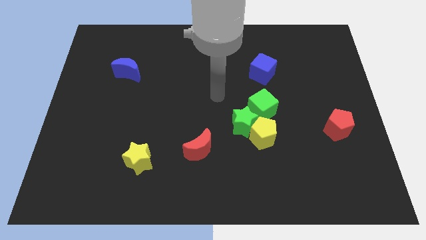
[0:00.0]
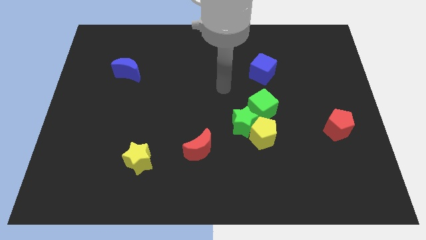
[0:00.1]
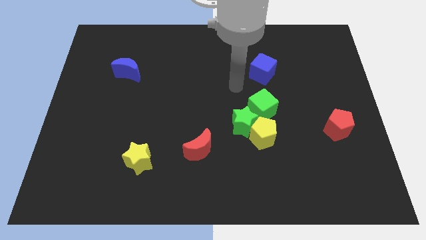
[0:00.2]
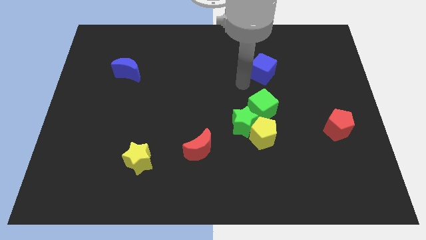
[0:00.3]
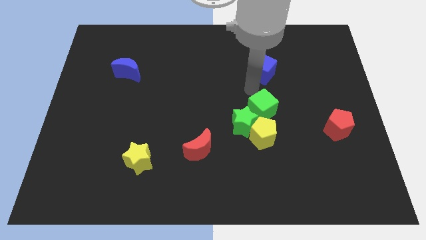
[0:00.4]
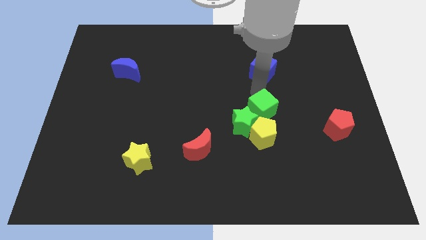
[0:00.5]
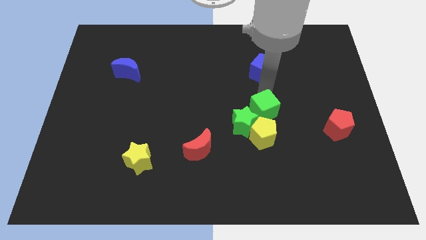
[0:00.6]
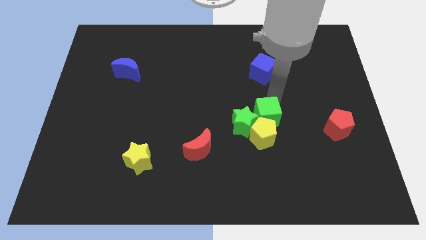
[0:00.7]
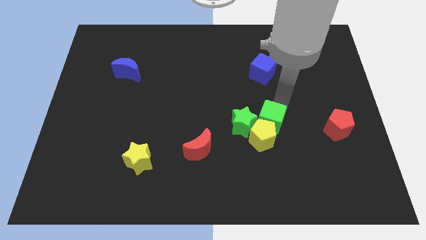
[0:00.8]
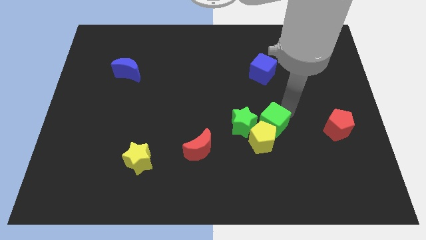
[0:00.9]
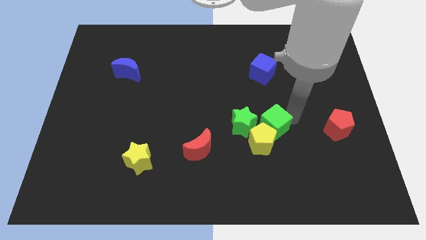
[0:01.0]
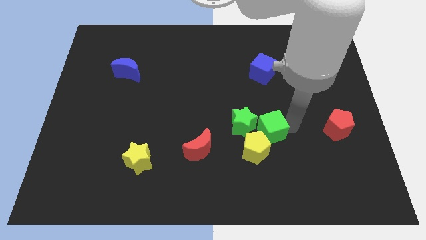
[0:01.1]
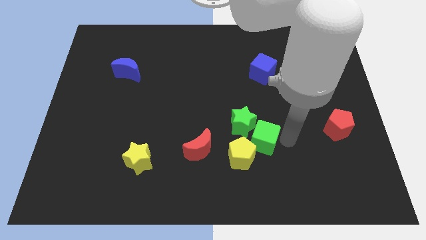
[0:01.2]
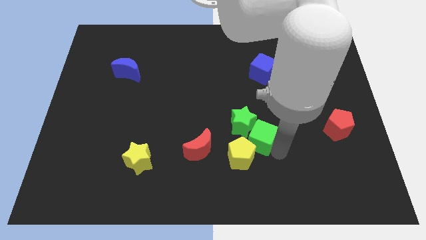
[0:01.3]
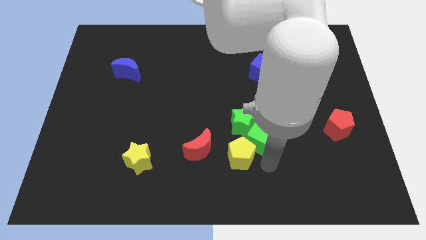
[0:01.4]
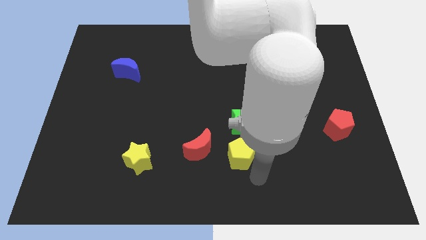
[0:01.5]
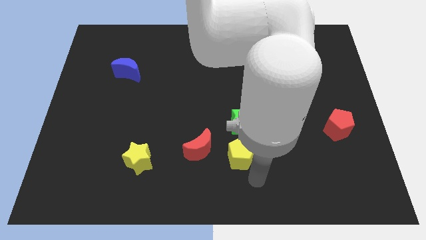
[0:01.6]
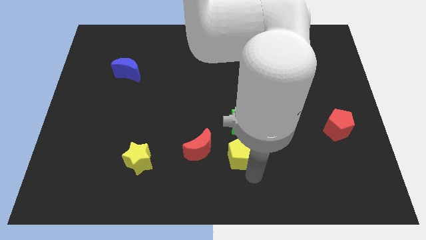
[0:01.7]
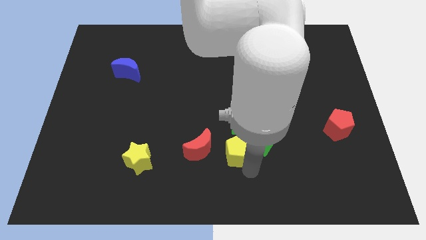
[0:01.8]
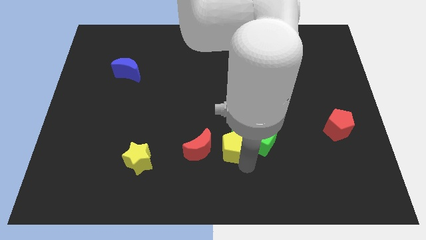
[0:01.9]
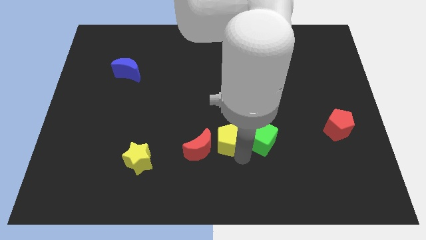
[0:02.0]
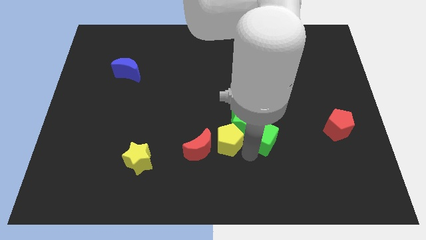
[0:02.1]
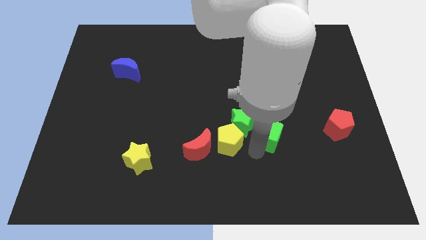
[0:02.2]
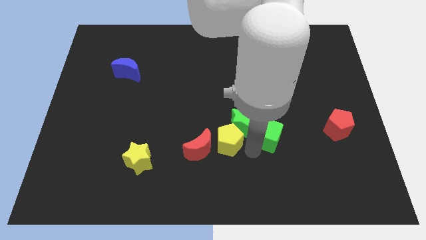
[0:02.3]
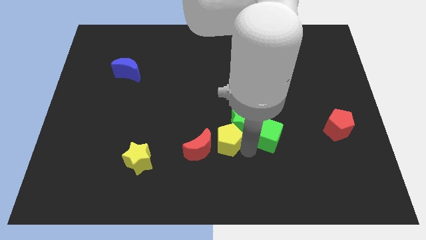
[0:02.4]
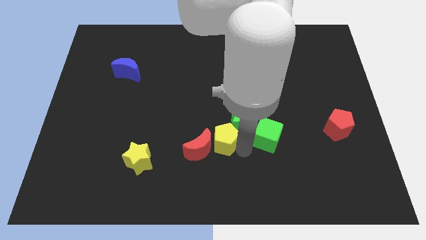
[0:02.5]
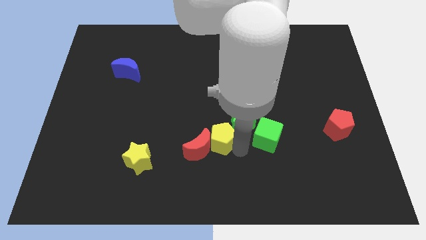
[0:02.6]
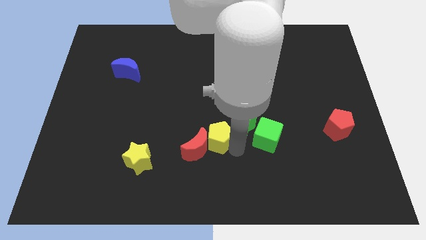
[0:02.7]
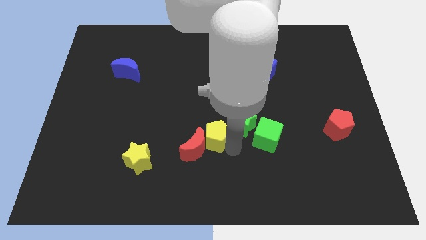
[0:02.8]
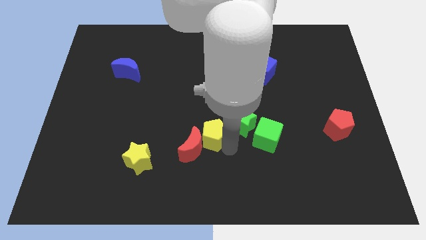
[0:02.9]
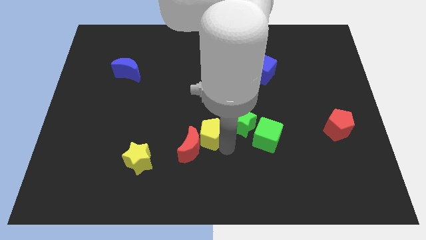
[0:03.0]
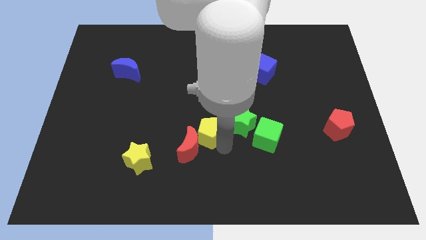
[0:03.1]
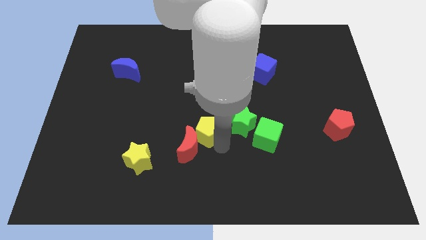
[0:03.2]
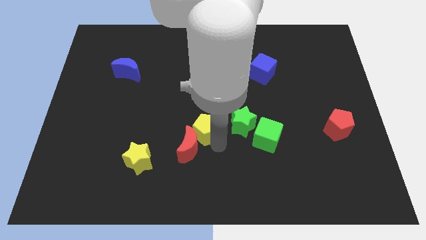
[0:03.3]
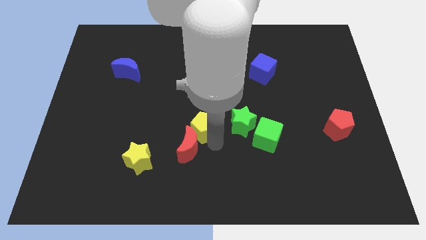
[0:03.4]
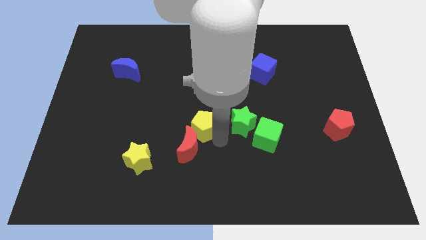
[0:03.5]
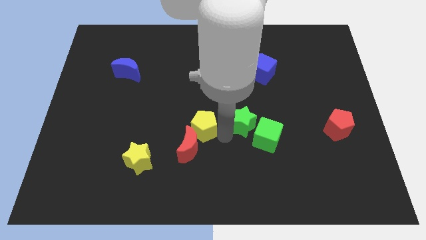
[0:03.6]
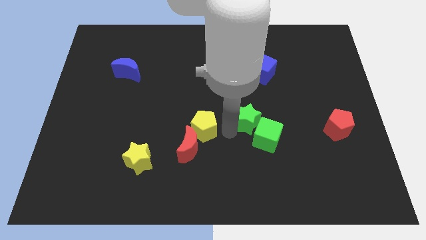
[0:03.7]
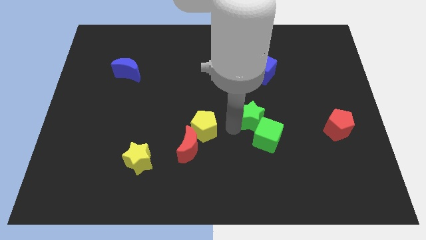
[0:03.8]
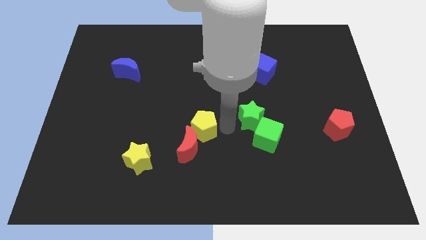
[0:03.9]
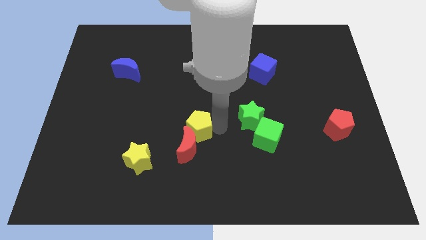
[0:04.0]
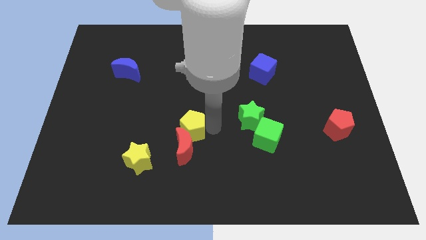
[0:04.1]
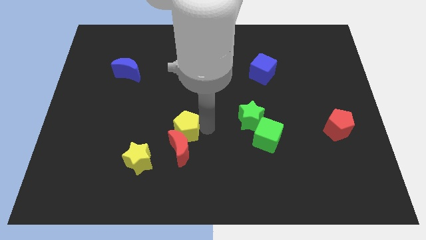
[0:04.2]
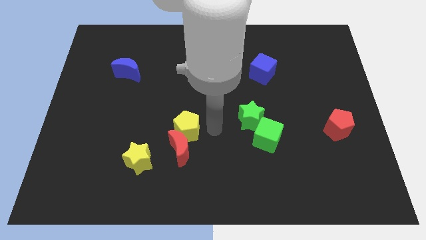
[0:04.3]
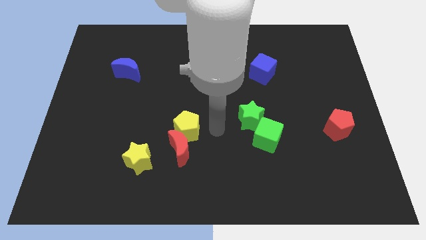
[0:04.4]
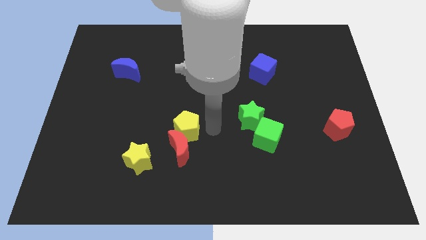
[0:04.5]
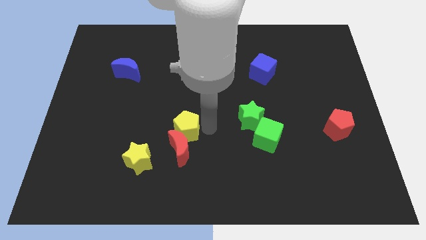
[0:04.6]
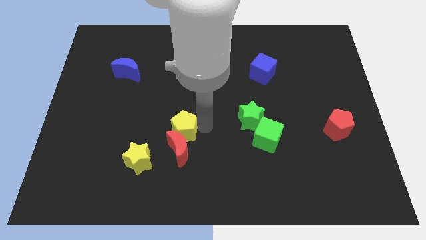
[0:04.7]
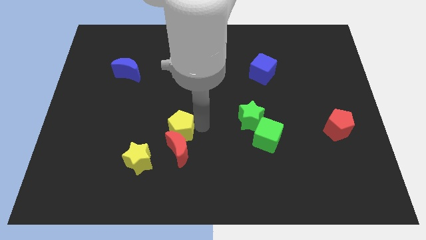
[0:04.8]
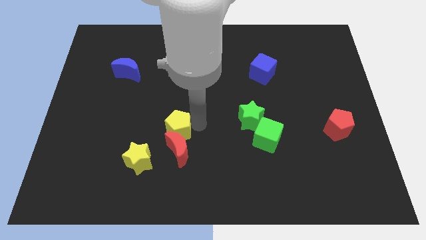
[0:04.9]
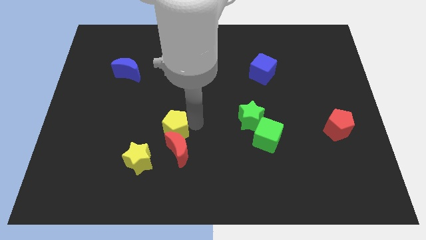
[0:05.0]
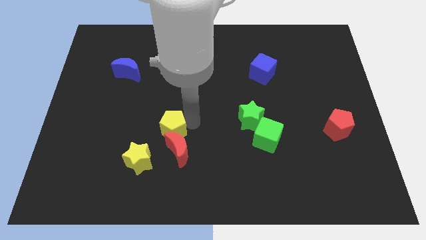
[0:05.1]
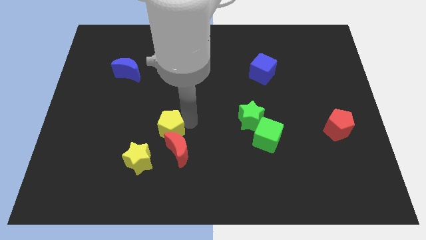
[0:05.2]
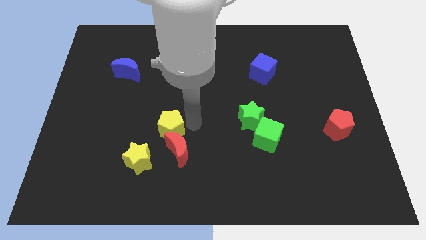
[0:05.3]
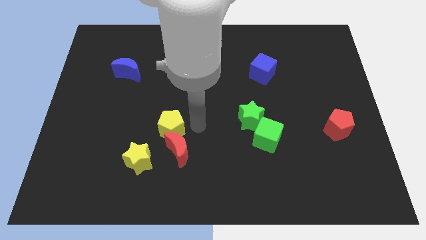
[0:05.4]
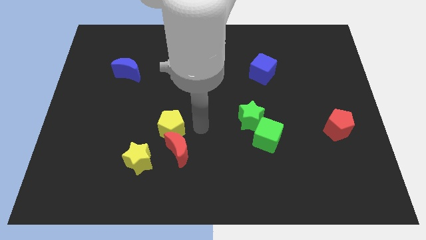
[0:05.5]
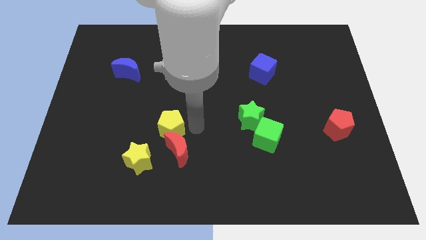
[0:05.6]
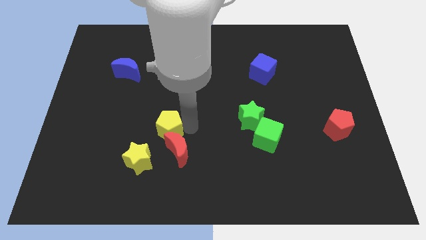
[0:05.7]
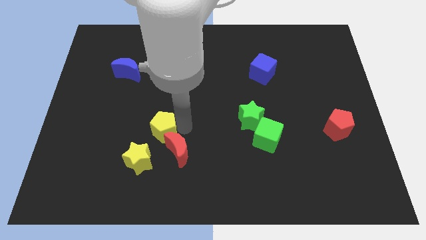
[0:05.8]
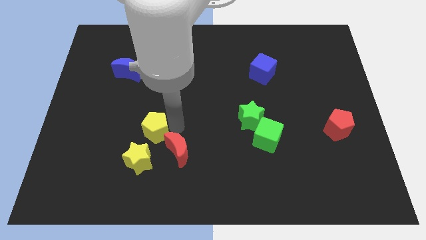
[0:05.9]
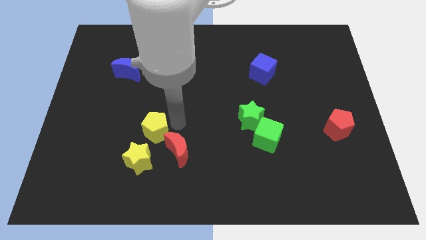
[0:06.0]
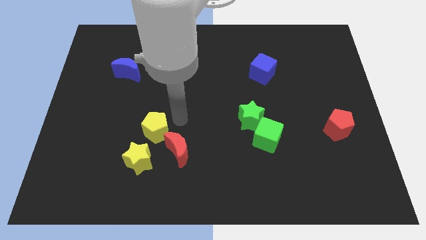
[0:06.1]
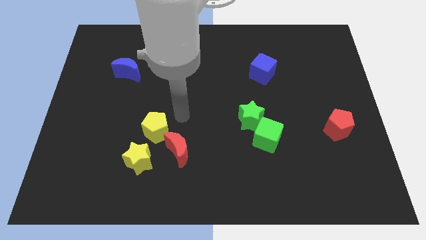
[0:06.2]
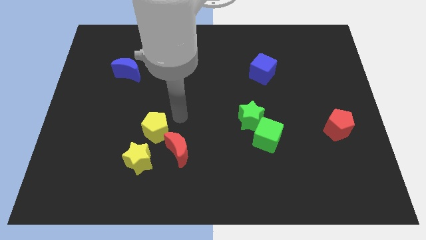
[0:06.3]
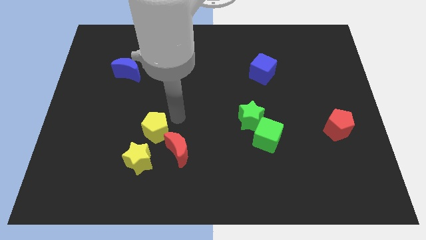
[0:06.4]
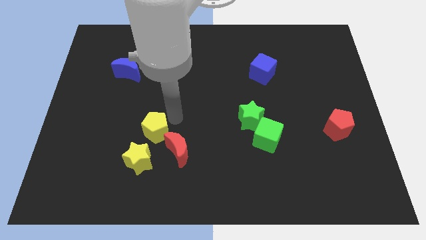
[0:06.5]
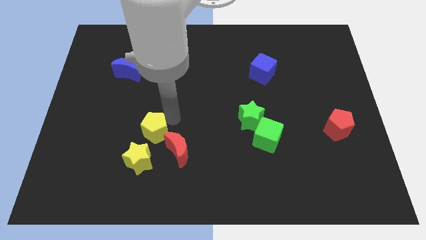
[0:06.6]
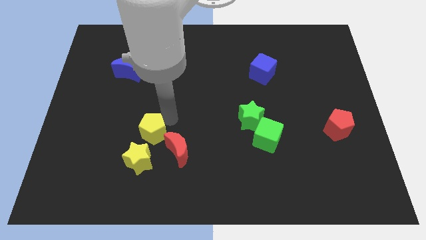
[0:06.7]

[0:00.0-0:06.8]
slide the yellow pentagon left of the red moon
